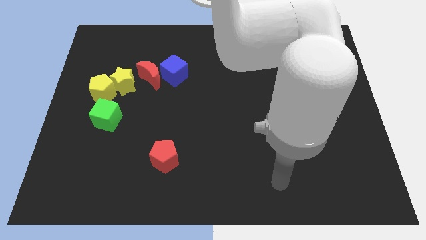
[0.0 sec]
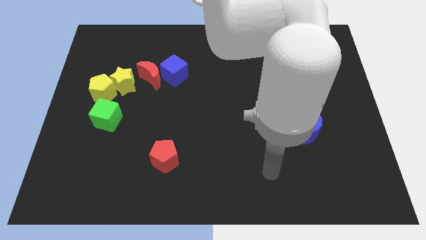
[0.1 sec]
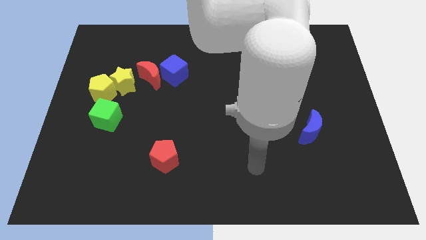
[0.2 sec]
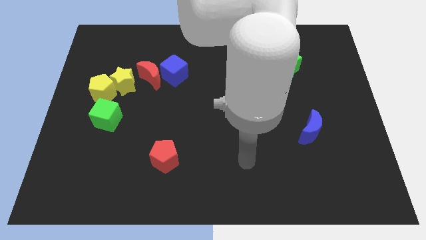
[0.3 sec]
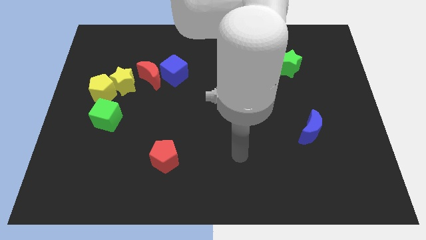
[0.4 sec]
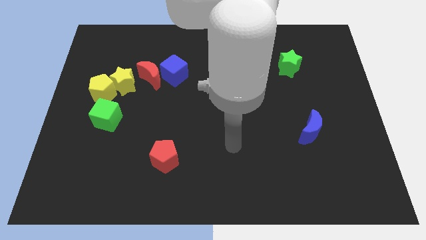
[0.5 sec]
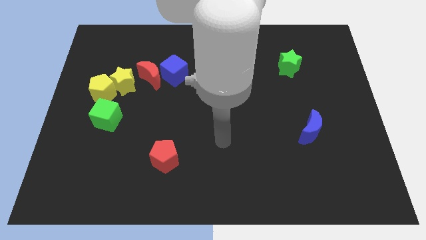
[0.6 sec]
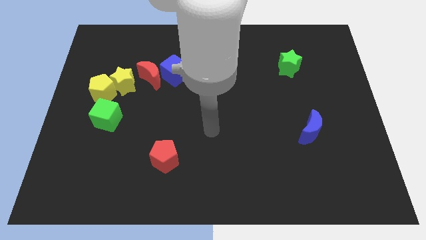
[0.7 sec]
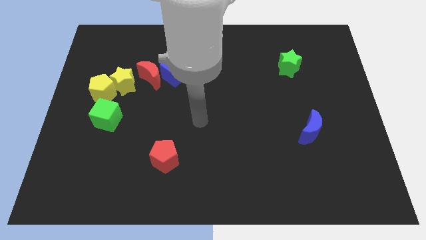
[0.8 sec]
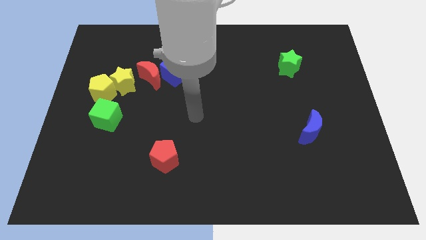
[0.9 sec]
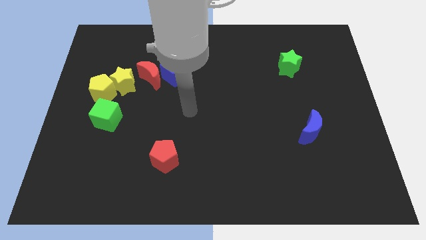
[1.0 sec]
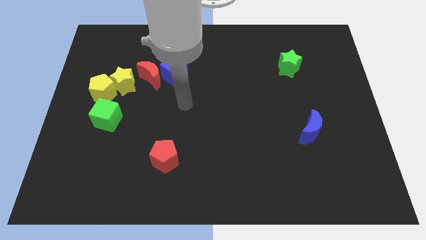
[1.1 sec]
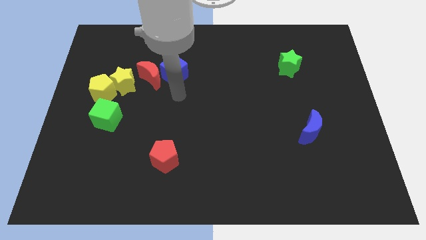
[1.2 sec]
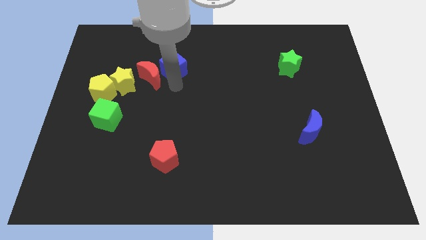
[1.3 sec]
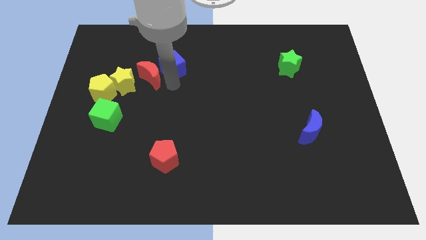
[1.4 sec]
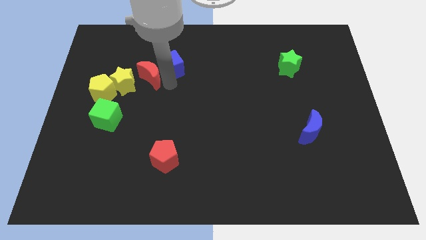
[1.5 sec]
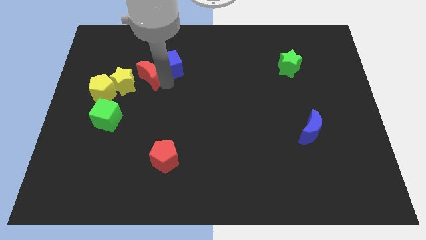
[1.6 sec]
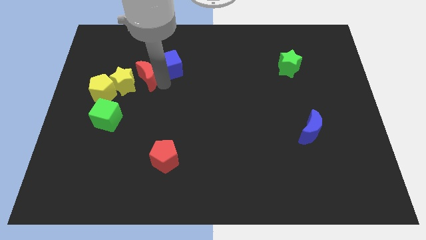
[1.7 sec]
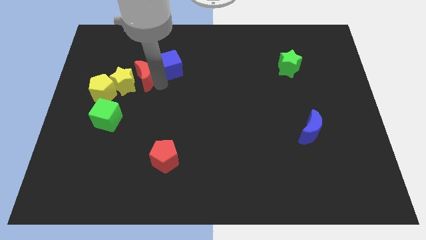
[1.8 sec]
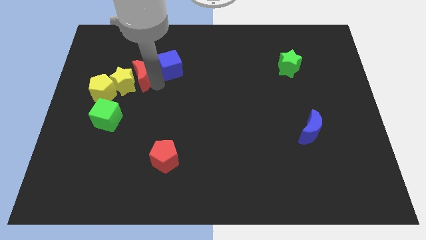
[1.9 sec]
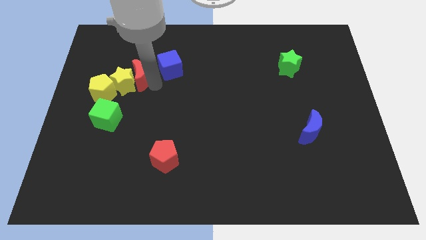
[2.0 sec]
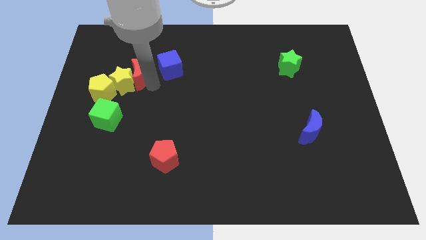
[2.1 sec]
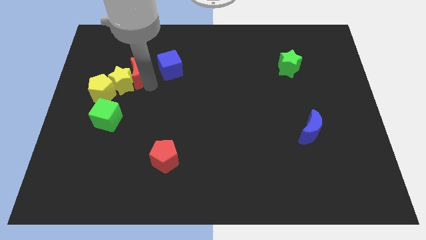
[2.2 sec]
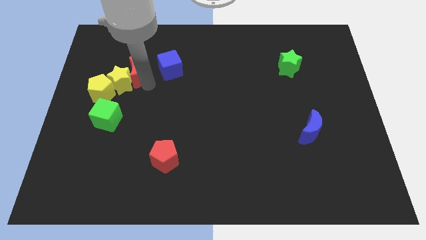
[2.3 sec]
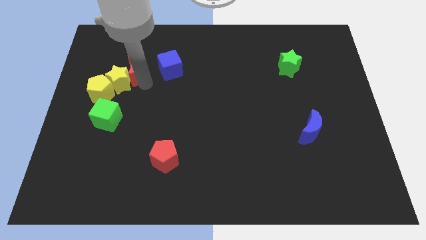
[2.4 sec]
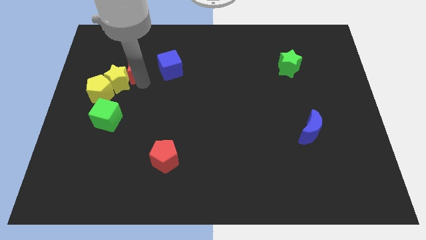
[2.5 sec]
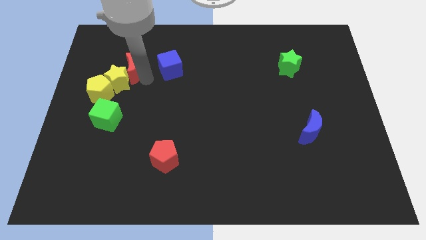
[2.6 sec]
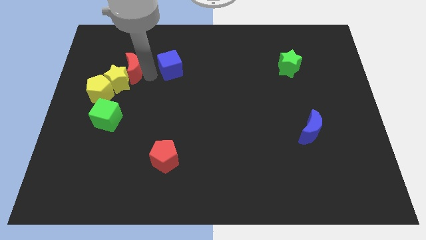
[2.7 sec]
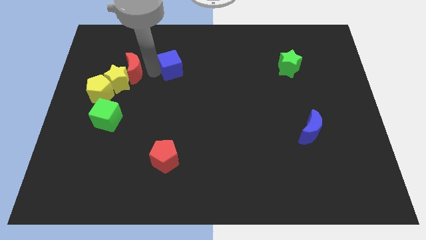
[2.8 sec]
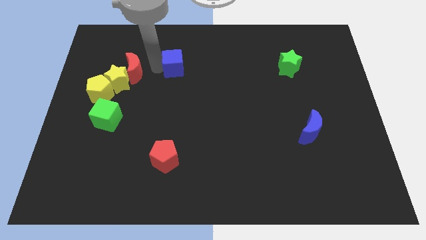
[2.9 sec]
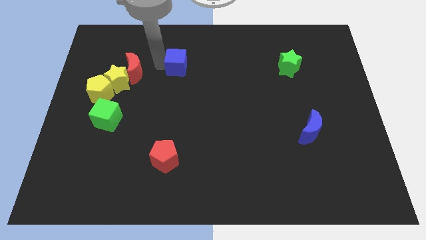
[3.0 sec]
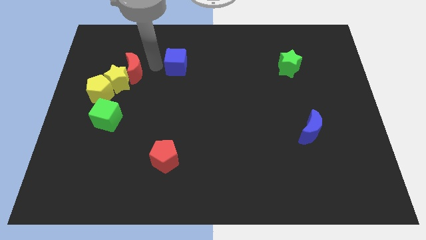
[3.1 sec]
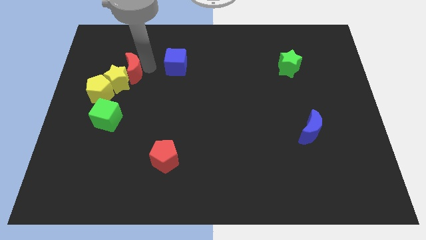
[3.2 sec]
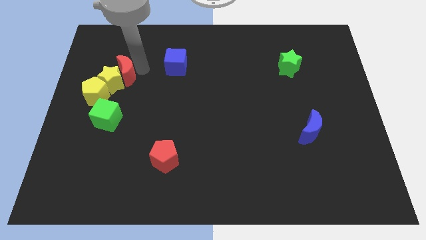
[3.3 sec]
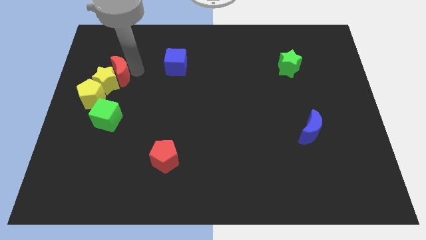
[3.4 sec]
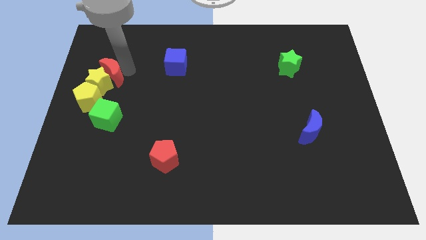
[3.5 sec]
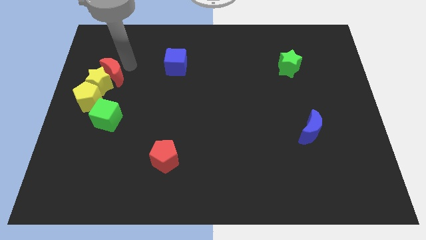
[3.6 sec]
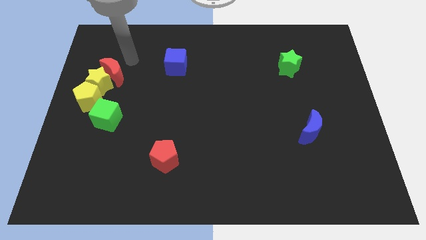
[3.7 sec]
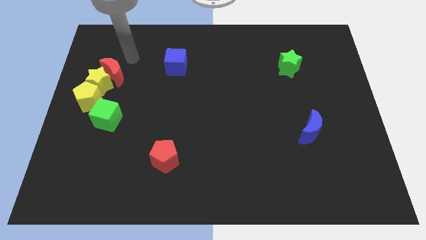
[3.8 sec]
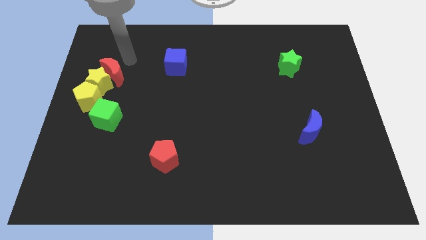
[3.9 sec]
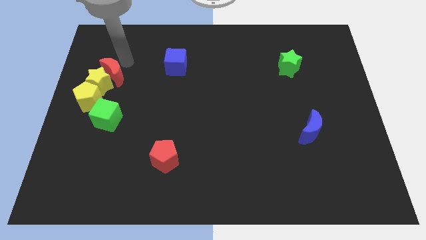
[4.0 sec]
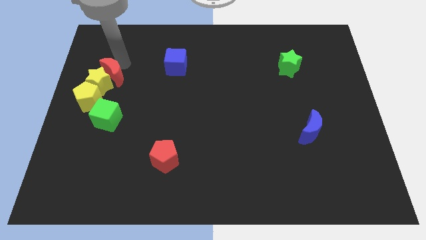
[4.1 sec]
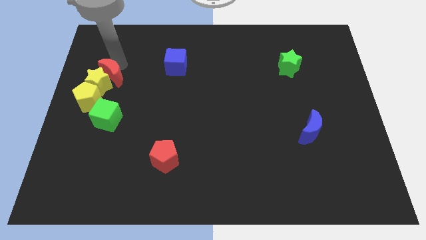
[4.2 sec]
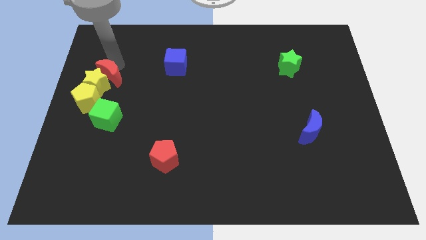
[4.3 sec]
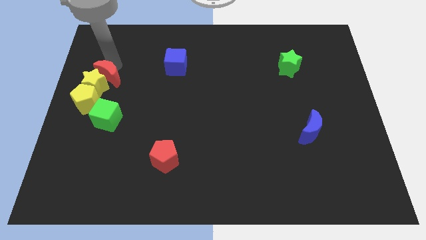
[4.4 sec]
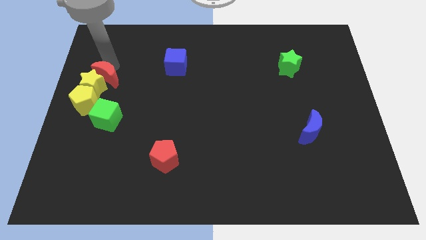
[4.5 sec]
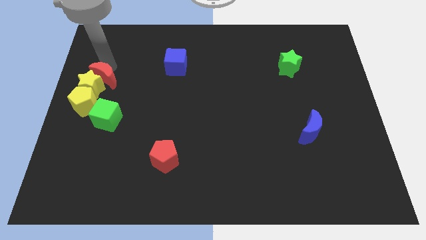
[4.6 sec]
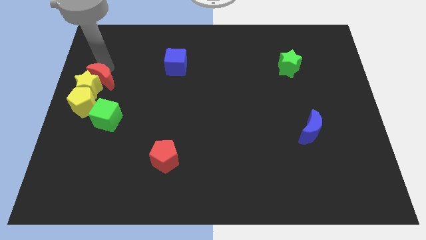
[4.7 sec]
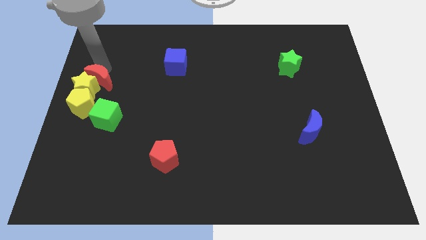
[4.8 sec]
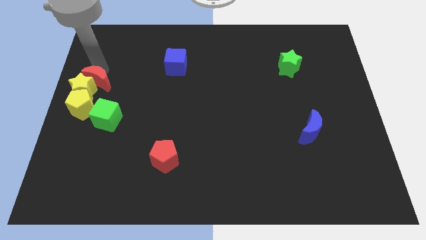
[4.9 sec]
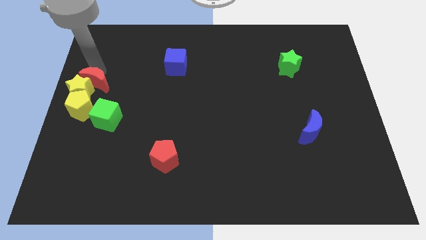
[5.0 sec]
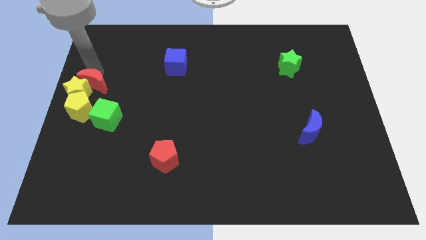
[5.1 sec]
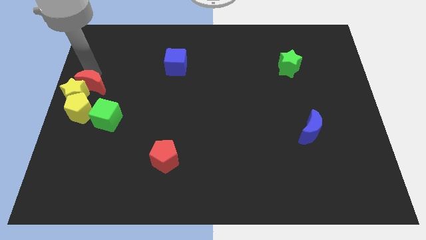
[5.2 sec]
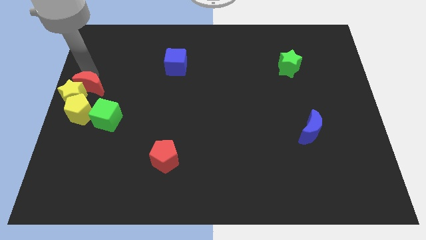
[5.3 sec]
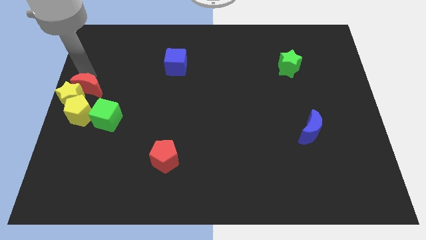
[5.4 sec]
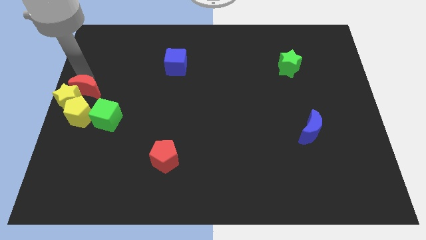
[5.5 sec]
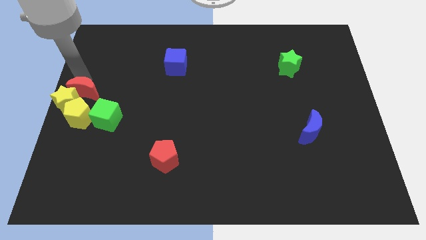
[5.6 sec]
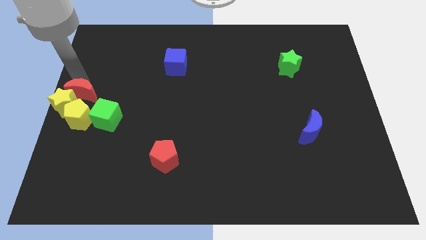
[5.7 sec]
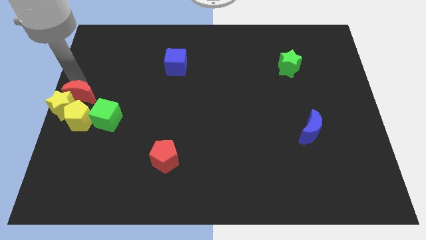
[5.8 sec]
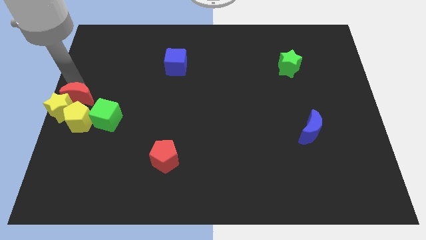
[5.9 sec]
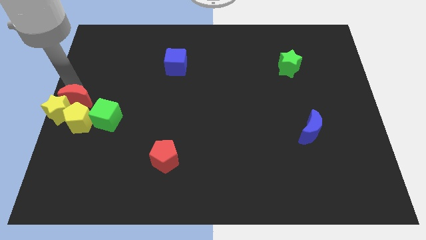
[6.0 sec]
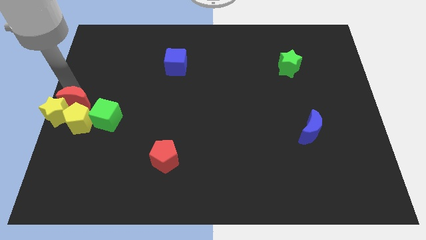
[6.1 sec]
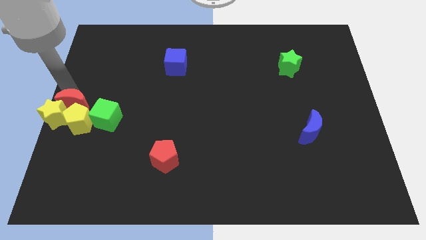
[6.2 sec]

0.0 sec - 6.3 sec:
push the red moon to the yellow pentagon

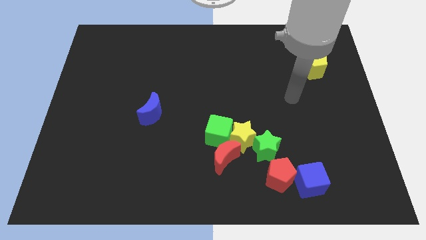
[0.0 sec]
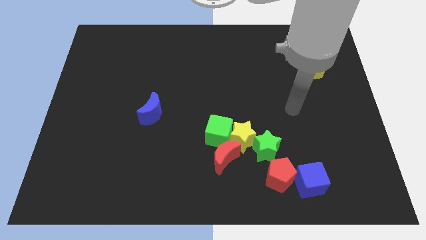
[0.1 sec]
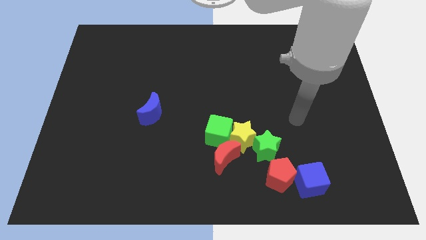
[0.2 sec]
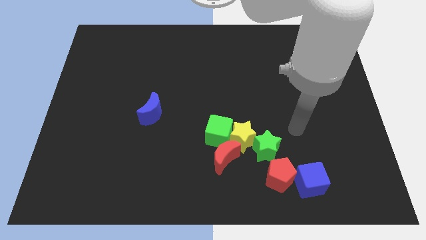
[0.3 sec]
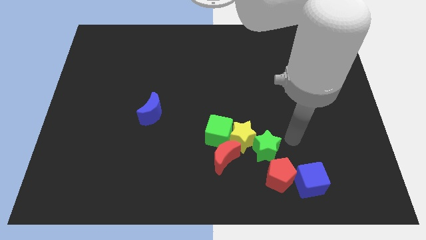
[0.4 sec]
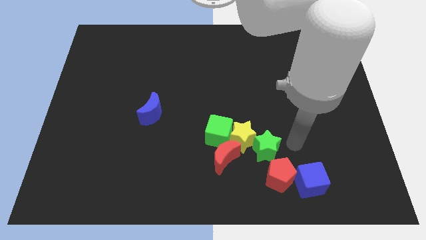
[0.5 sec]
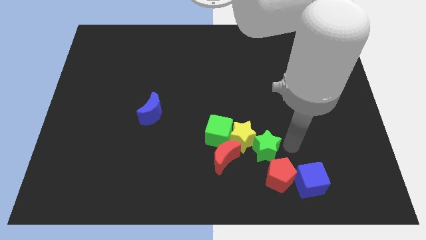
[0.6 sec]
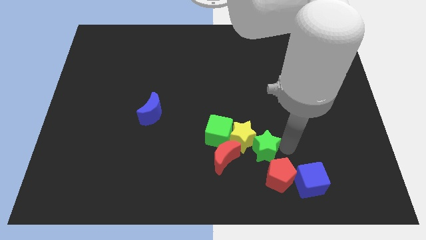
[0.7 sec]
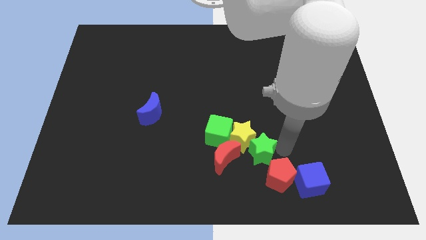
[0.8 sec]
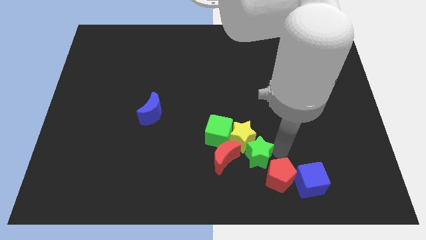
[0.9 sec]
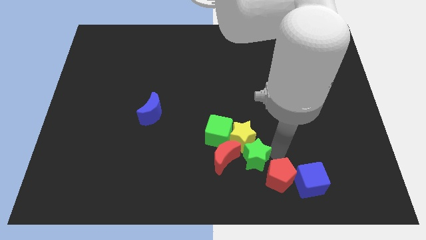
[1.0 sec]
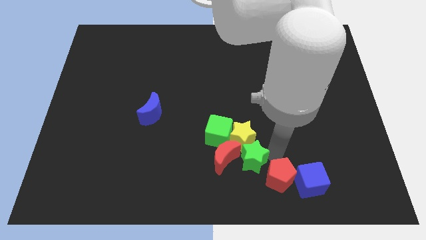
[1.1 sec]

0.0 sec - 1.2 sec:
put the green star next to the red moon
